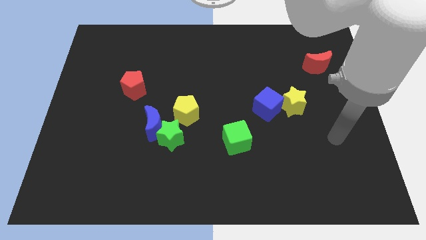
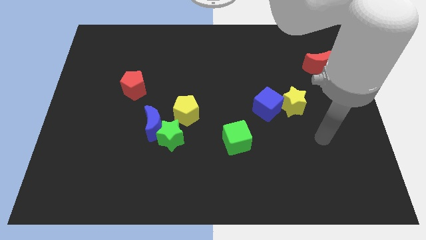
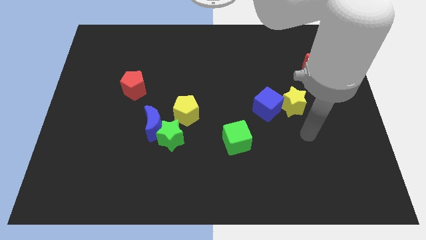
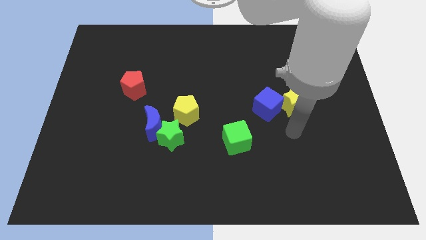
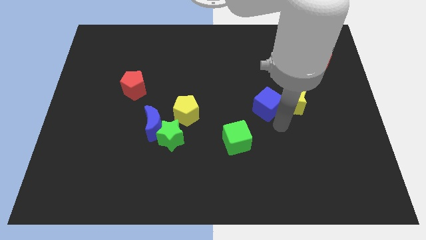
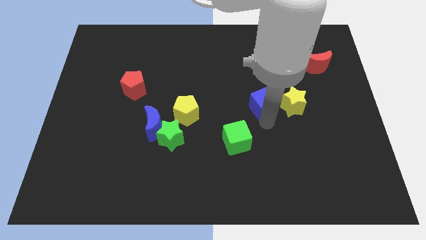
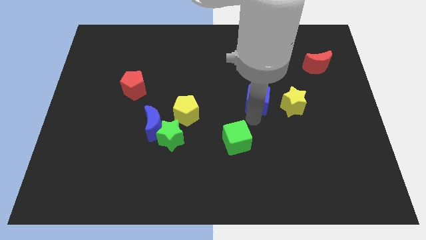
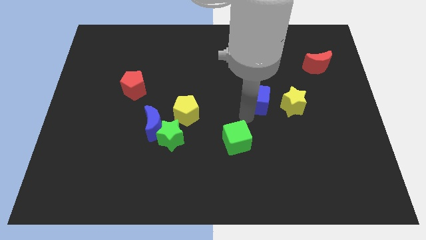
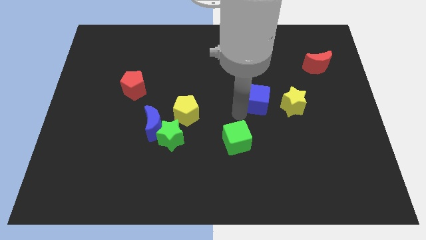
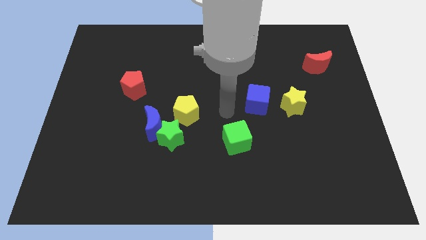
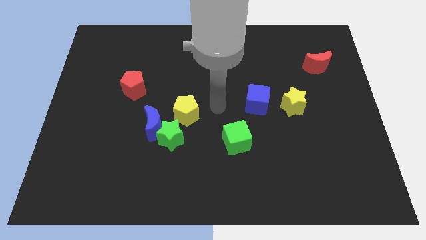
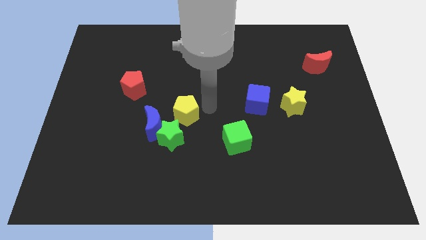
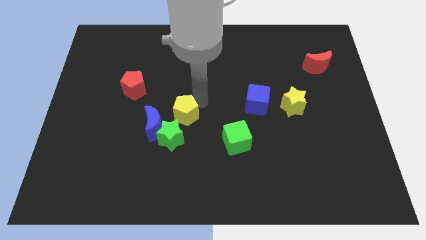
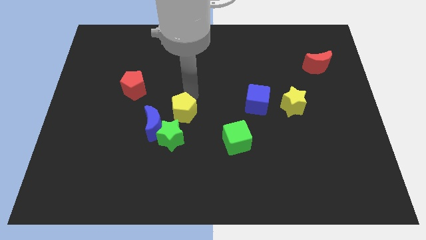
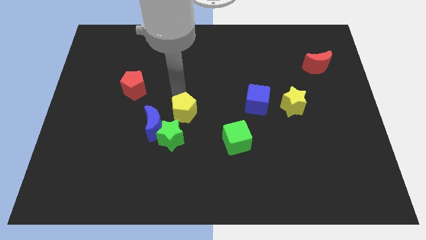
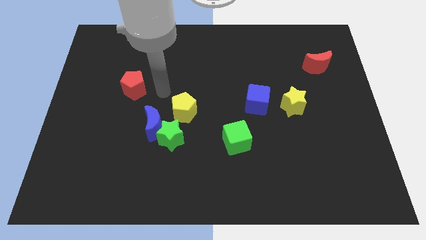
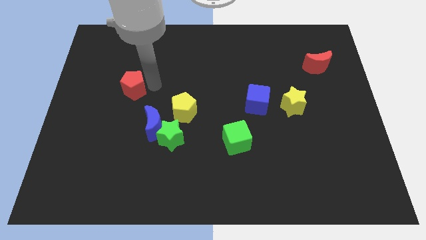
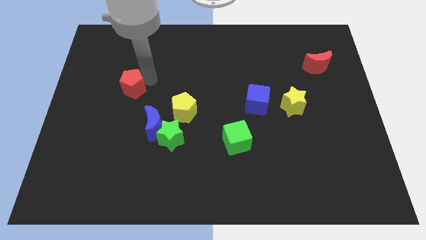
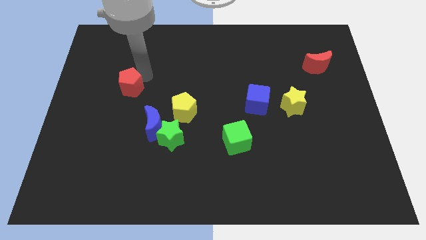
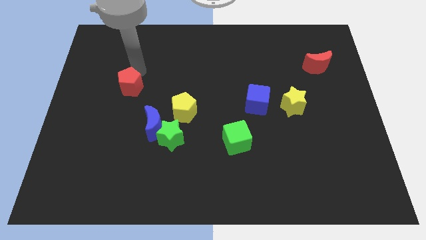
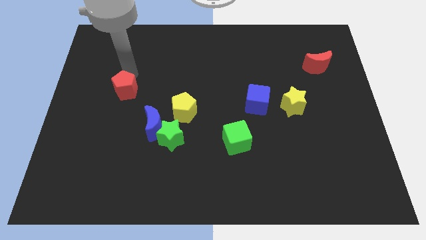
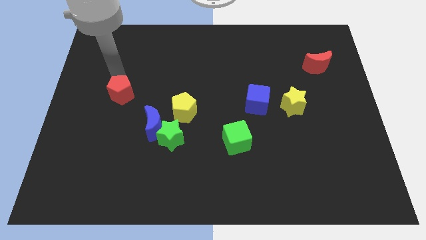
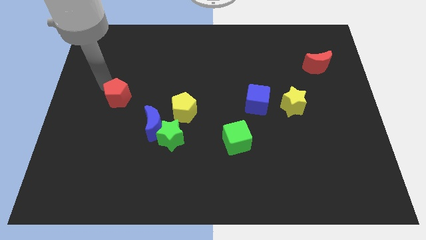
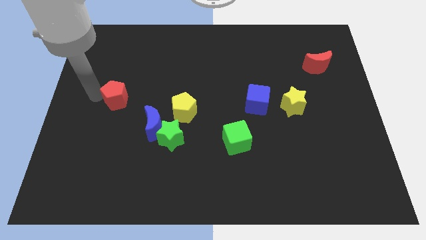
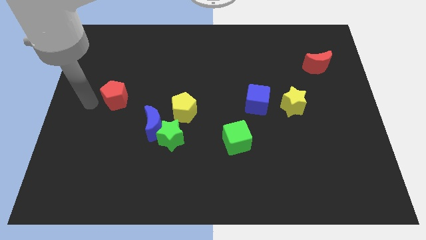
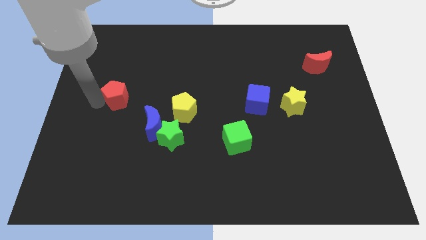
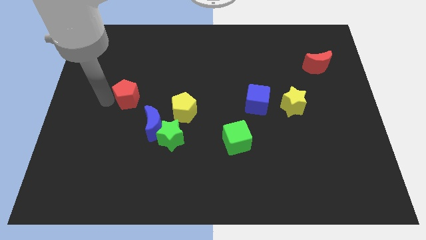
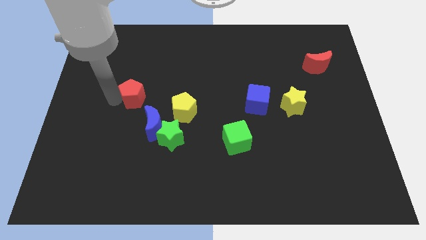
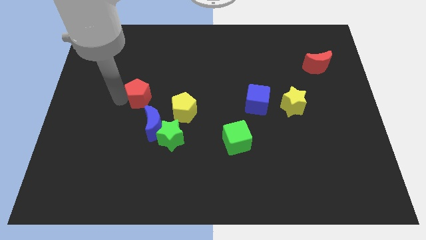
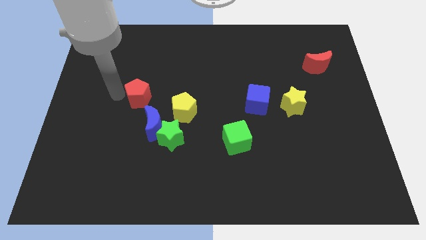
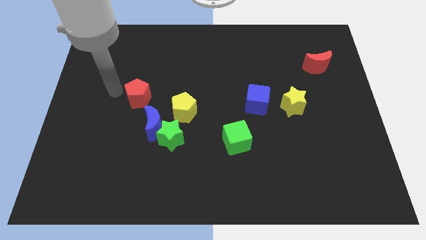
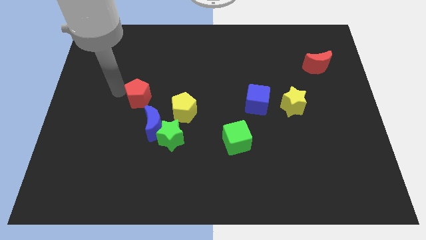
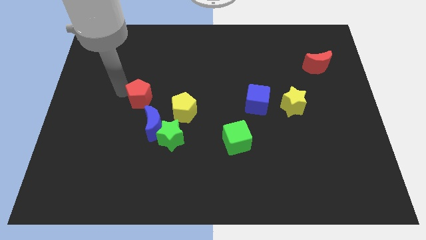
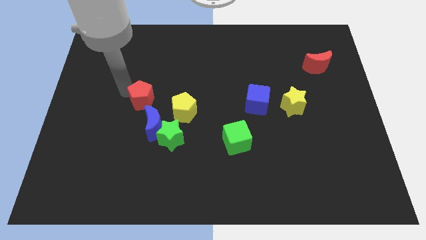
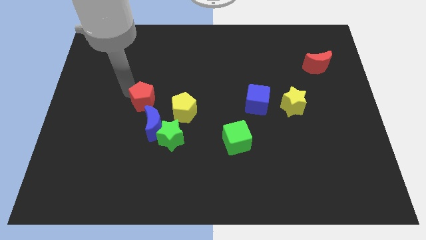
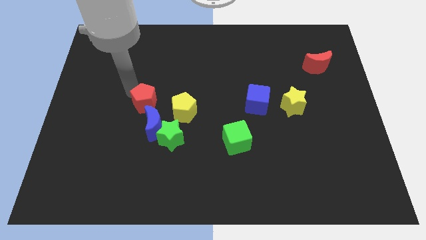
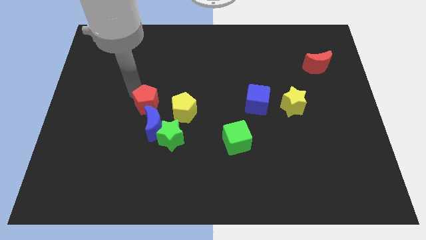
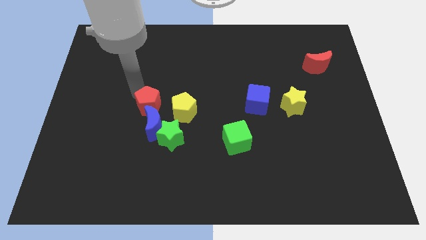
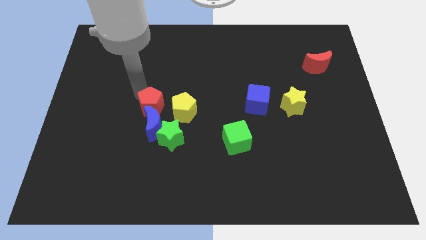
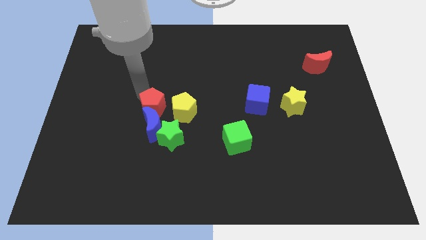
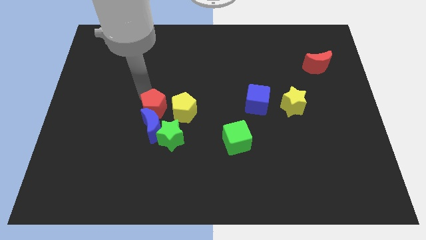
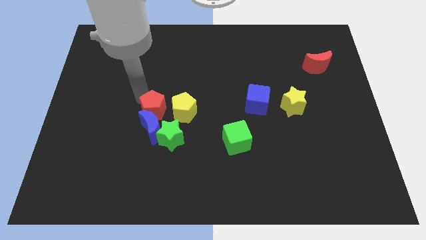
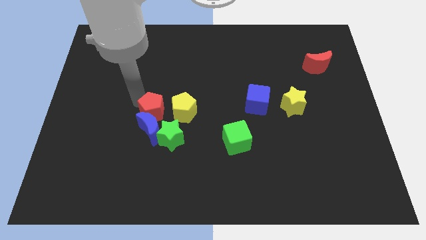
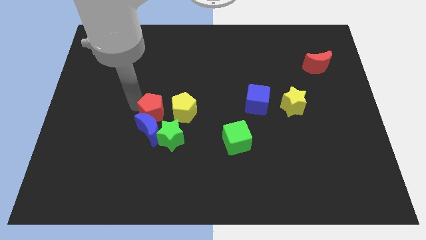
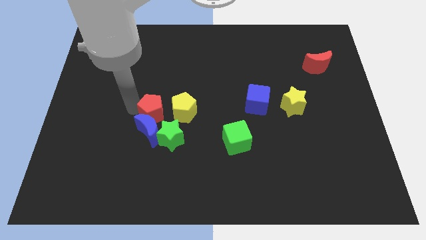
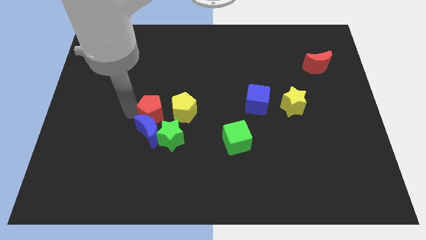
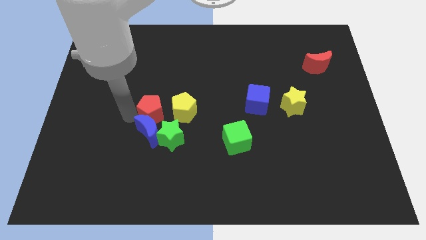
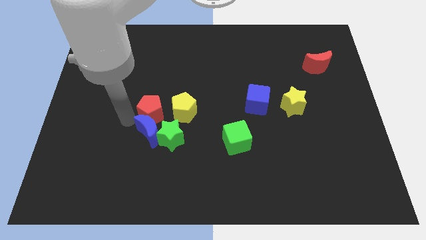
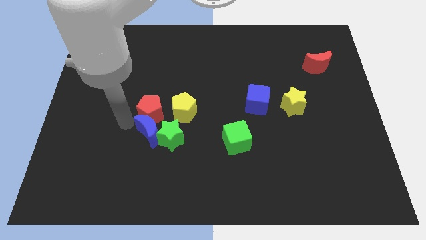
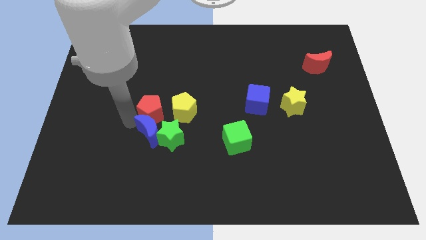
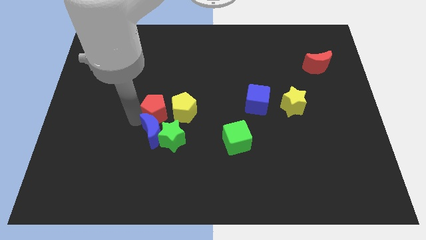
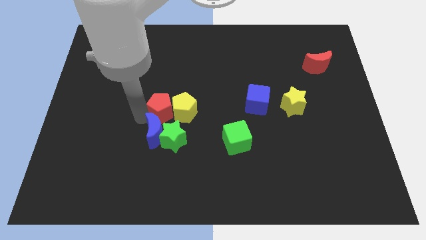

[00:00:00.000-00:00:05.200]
push the red pentagon to the yellow pentagon

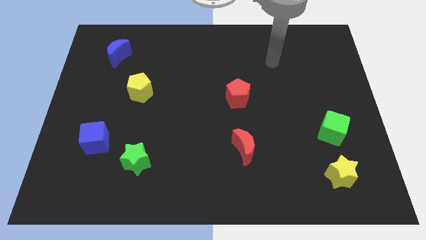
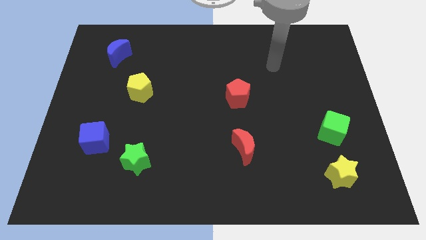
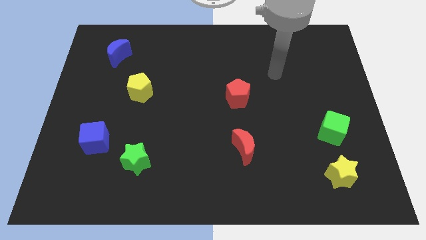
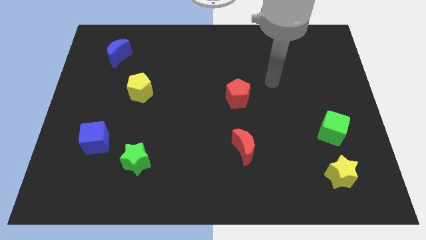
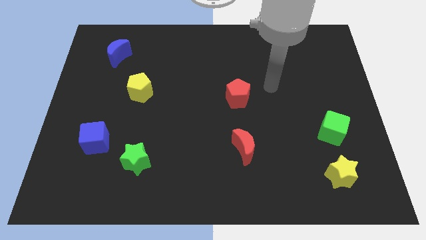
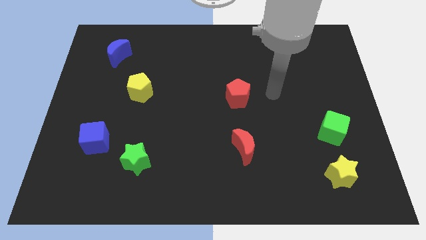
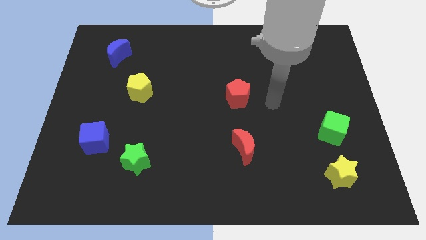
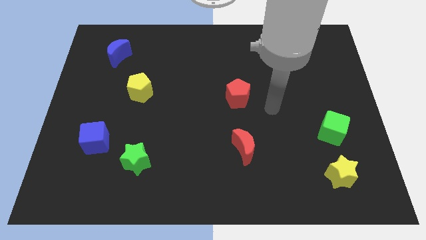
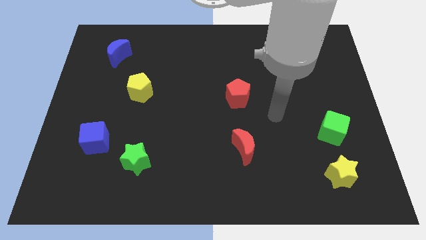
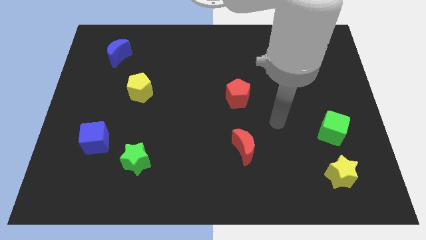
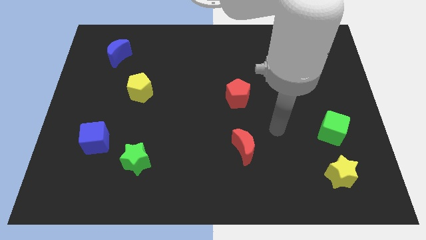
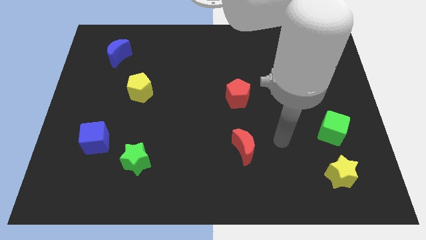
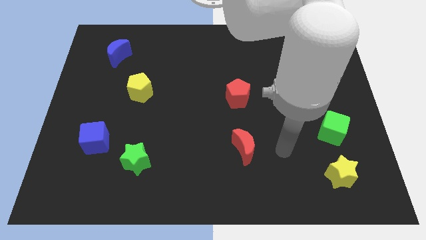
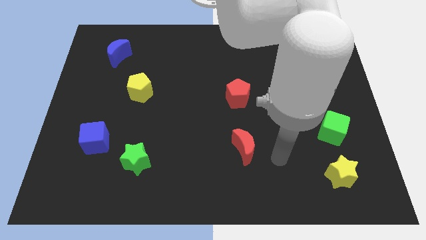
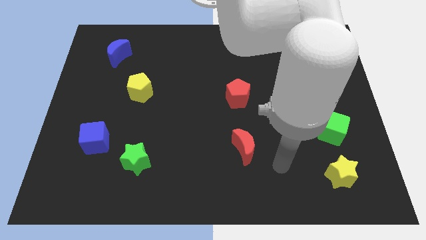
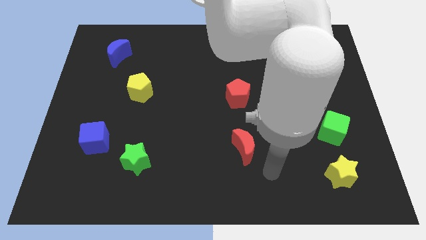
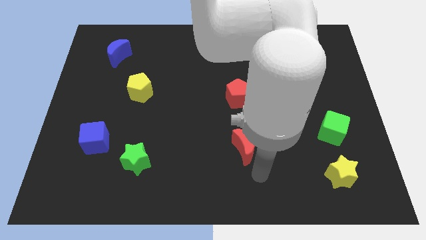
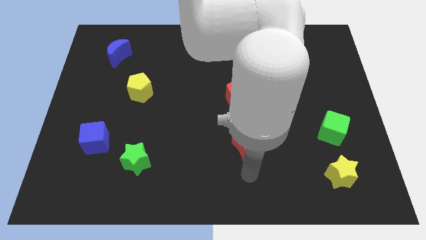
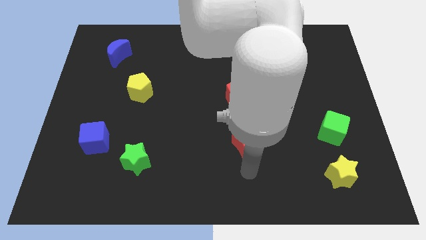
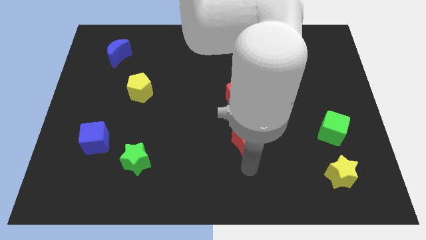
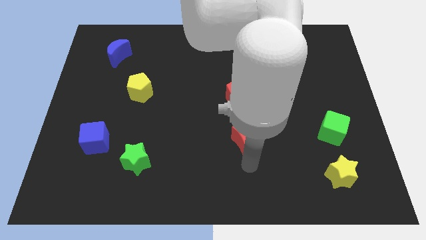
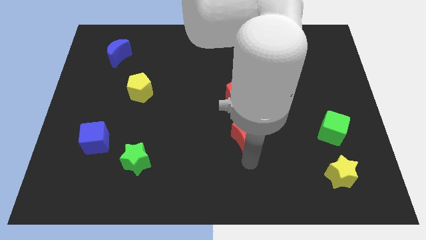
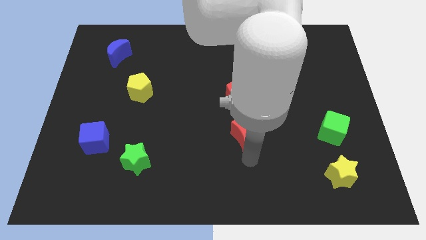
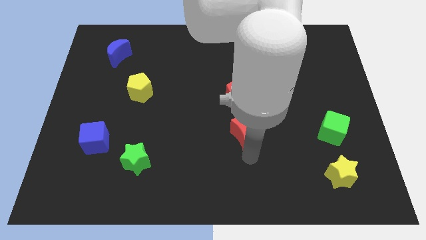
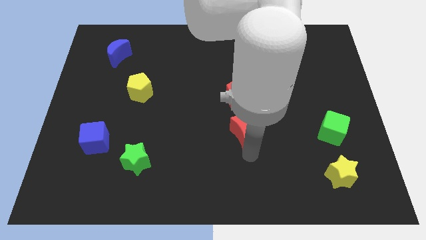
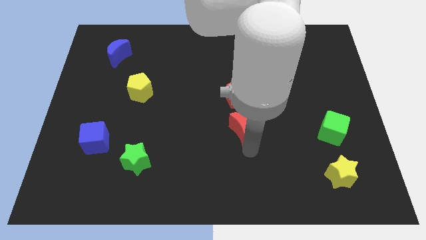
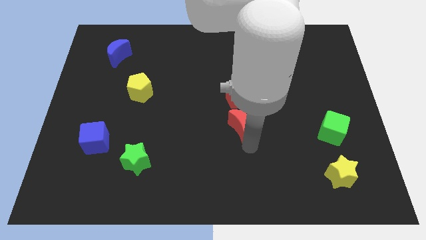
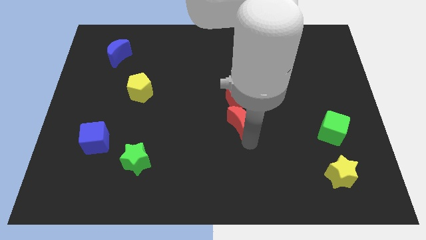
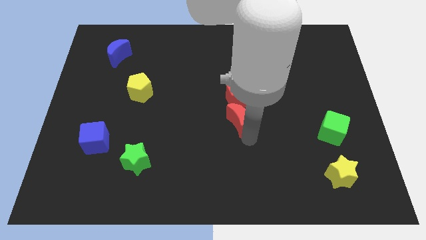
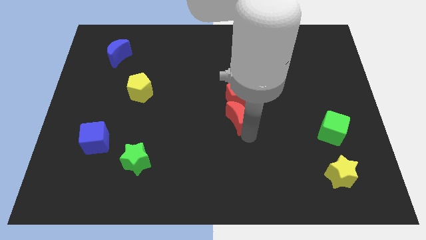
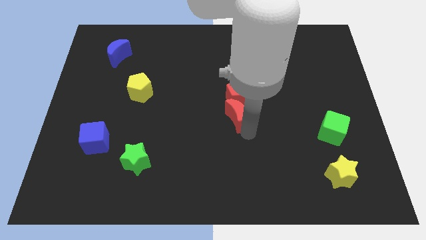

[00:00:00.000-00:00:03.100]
put the red moon close to the red pentagon
